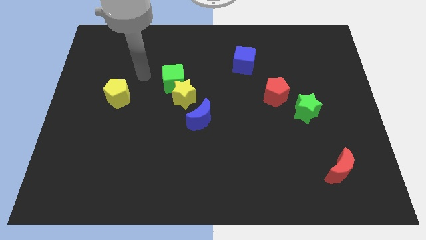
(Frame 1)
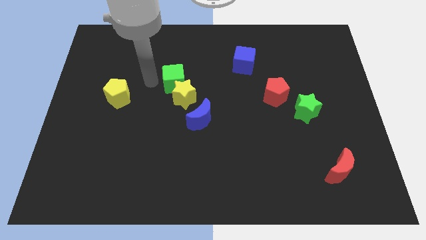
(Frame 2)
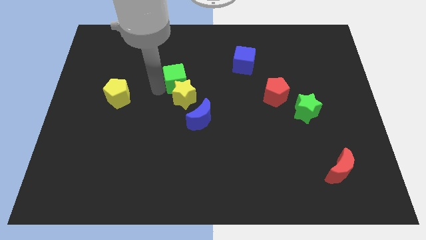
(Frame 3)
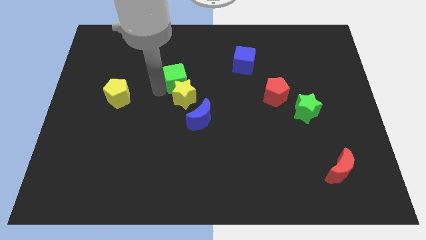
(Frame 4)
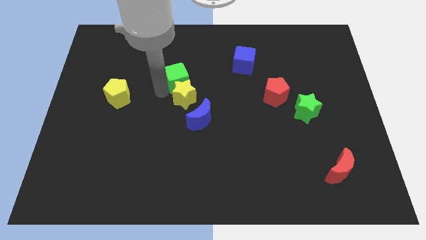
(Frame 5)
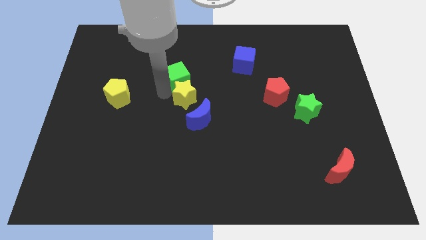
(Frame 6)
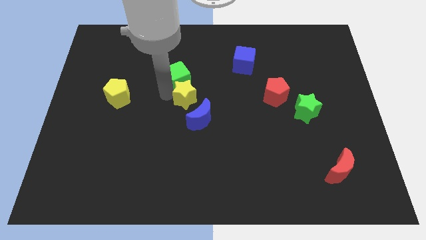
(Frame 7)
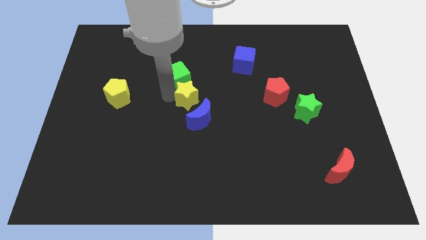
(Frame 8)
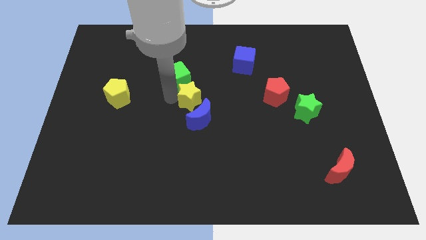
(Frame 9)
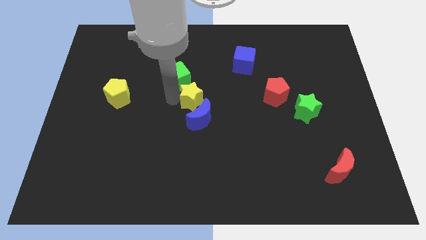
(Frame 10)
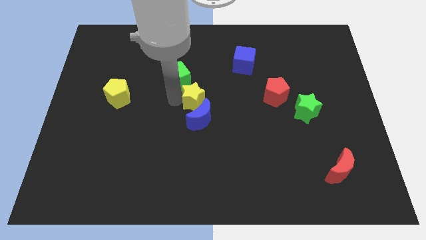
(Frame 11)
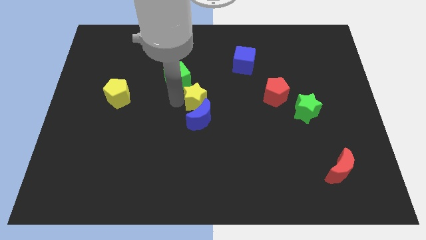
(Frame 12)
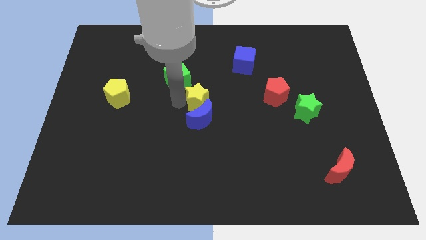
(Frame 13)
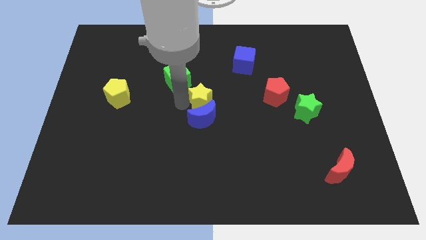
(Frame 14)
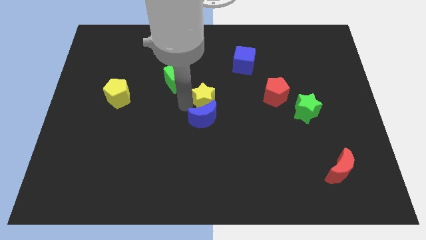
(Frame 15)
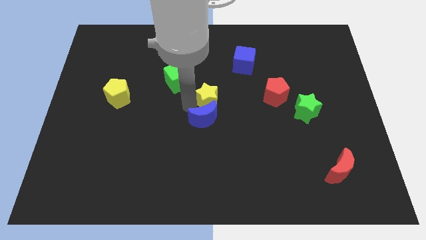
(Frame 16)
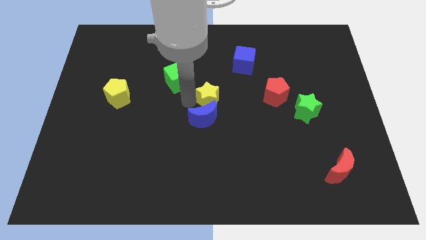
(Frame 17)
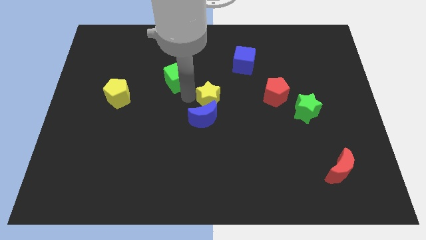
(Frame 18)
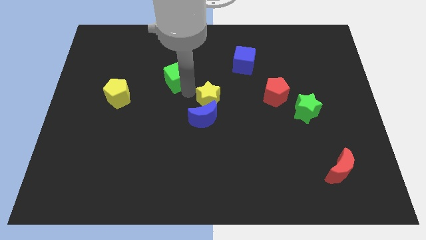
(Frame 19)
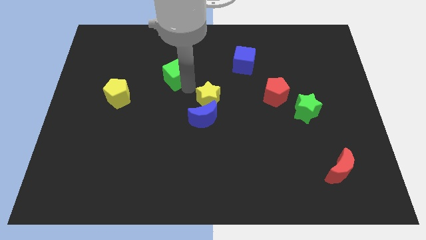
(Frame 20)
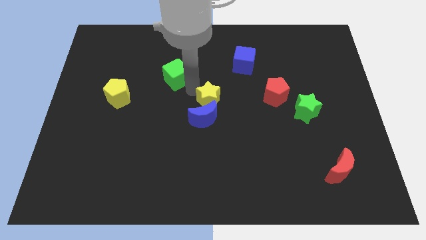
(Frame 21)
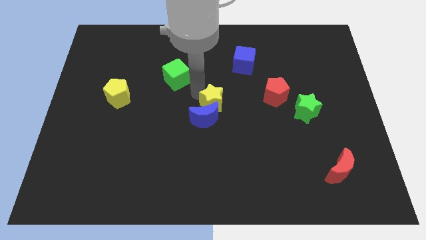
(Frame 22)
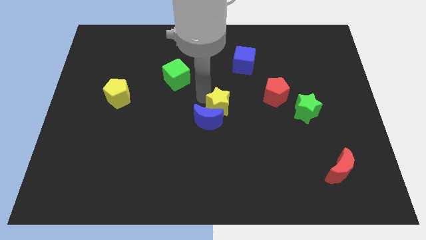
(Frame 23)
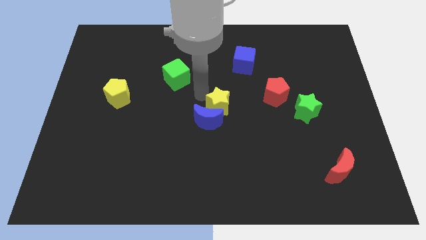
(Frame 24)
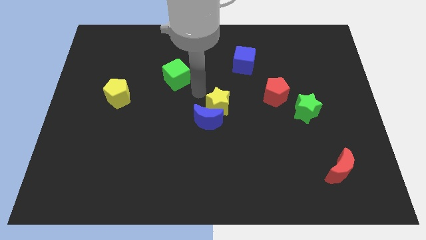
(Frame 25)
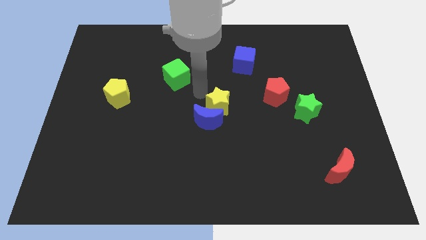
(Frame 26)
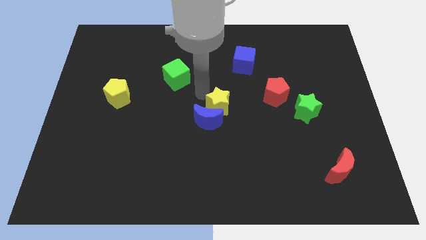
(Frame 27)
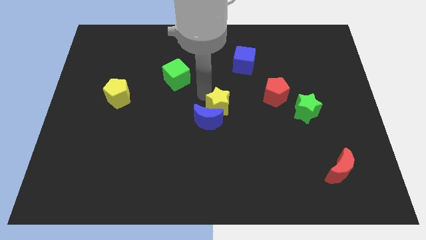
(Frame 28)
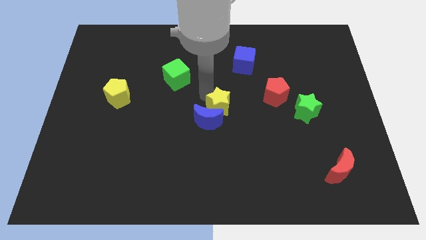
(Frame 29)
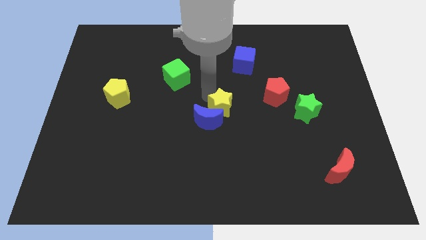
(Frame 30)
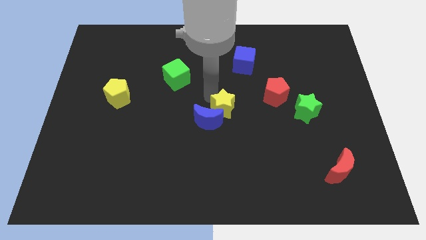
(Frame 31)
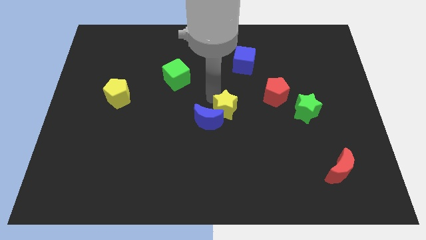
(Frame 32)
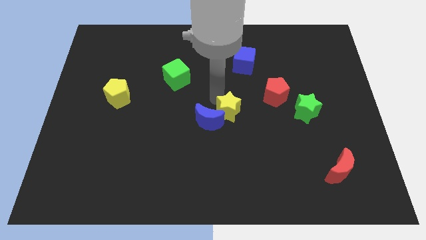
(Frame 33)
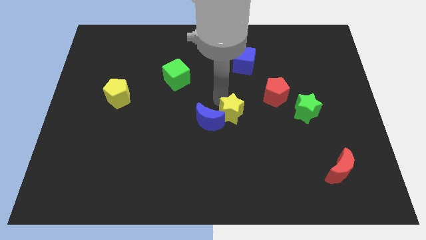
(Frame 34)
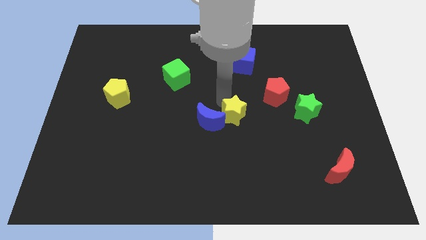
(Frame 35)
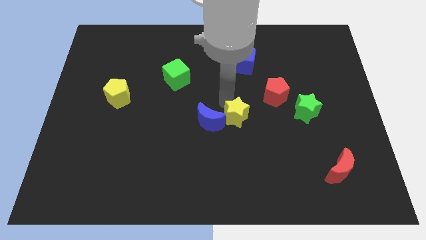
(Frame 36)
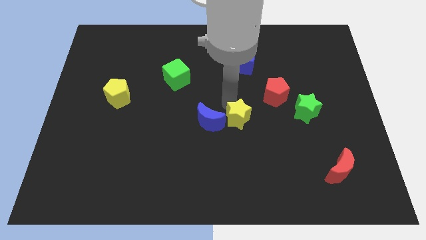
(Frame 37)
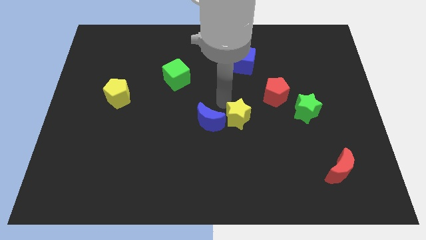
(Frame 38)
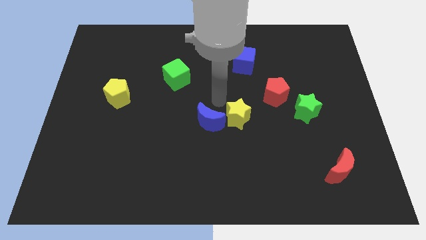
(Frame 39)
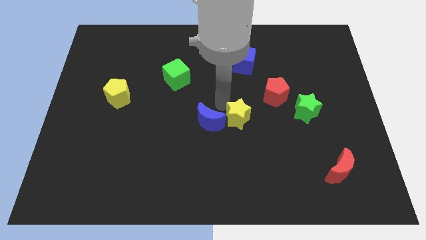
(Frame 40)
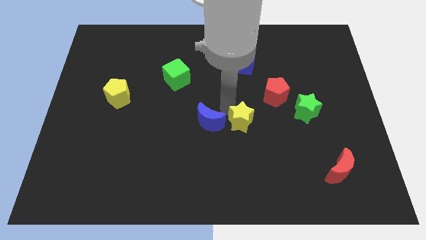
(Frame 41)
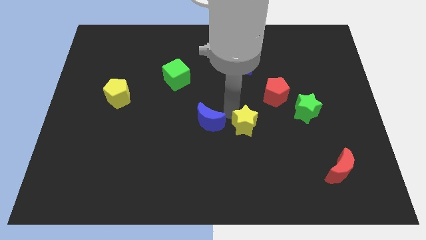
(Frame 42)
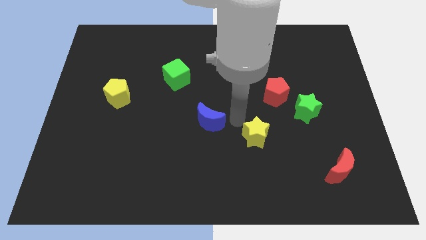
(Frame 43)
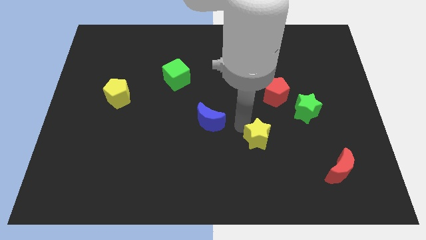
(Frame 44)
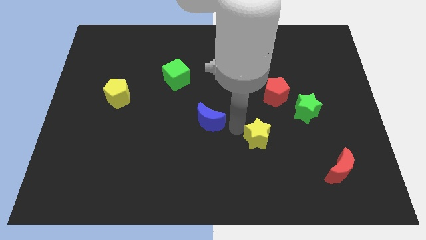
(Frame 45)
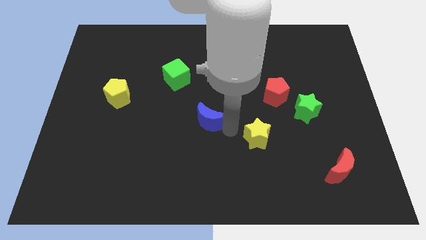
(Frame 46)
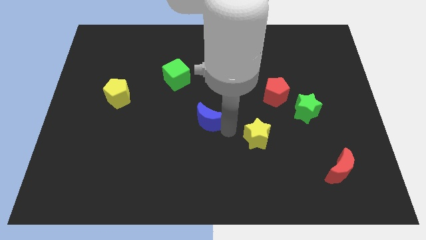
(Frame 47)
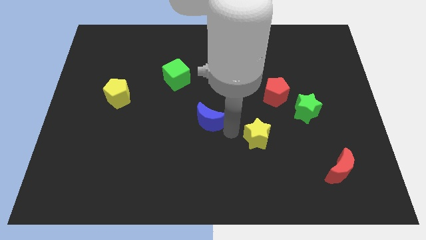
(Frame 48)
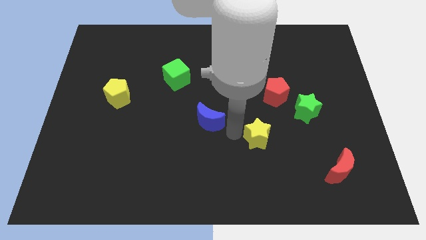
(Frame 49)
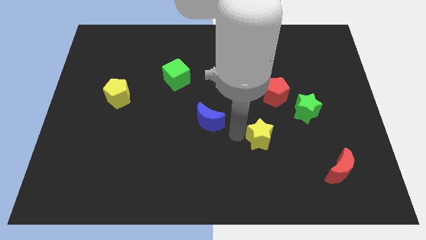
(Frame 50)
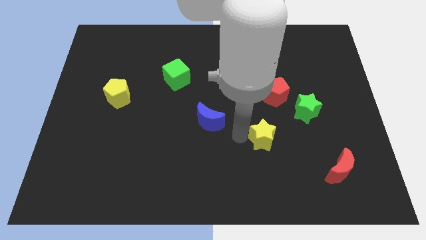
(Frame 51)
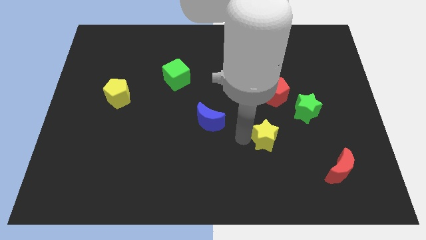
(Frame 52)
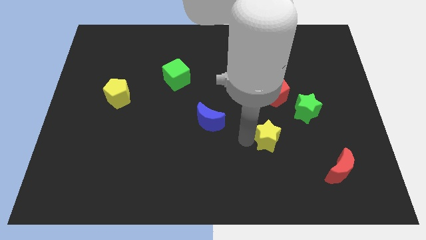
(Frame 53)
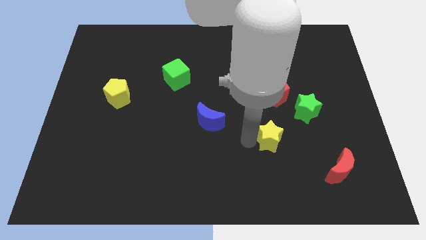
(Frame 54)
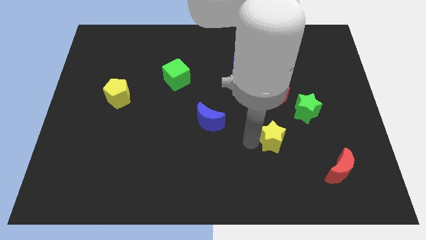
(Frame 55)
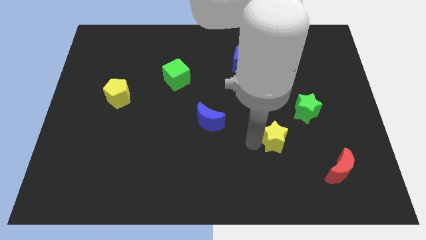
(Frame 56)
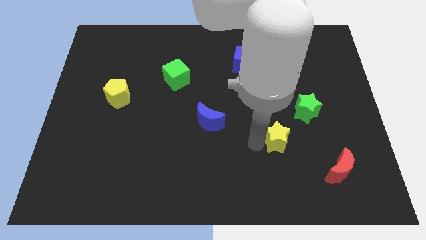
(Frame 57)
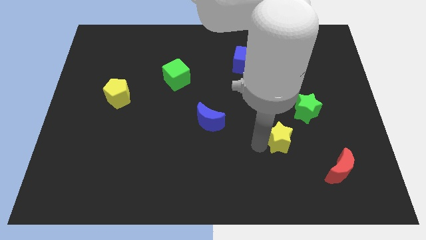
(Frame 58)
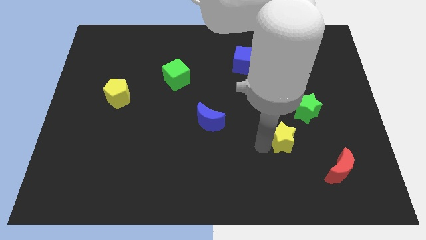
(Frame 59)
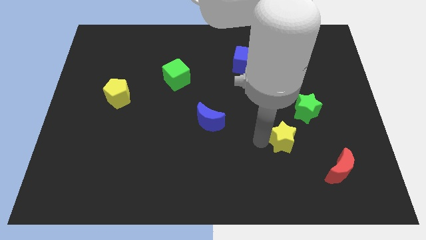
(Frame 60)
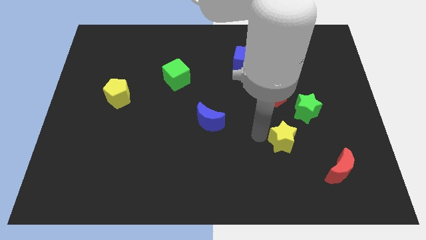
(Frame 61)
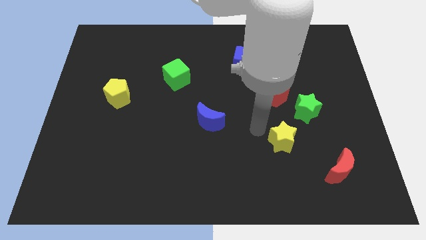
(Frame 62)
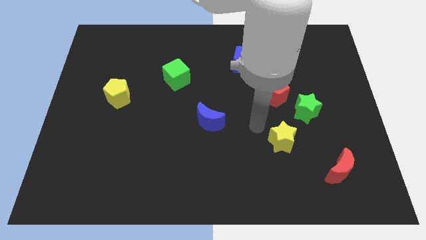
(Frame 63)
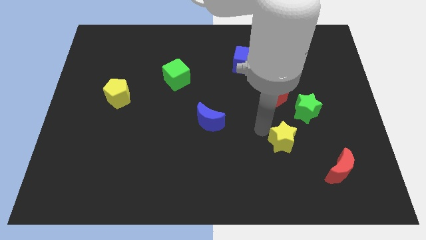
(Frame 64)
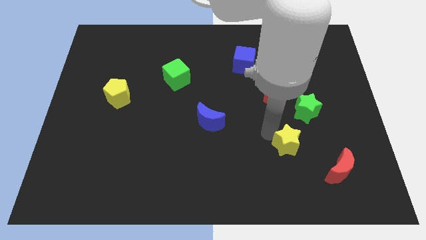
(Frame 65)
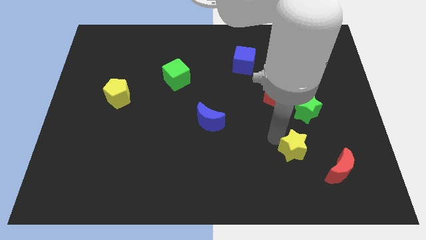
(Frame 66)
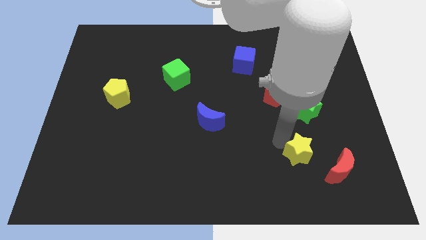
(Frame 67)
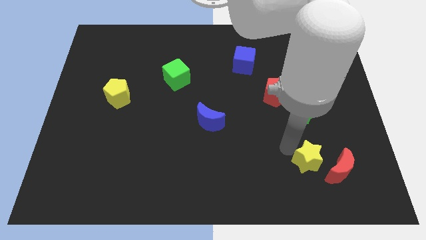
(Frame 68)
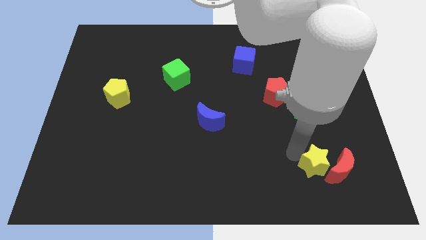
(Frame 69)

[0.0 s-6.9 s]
push the yellow star close to the red moon

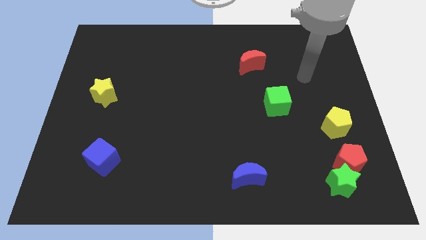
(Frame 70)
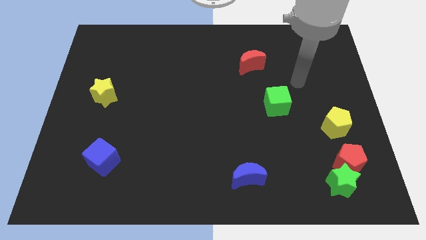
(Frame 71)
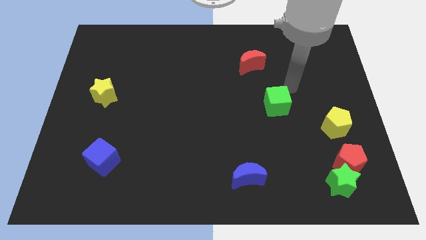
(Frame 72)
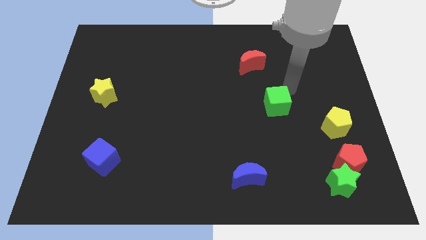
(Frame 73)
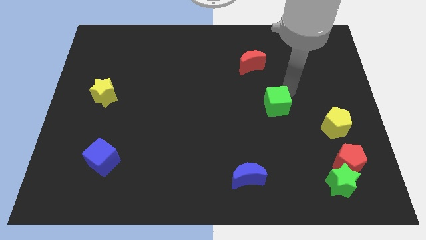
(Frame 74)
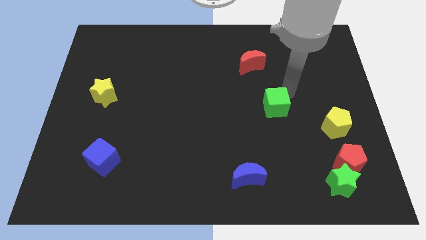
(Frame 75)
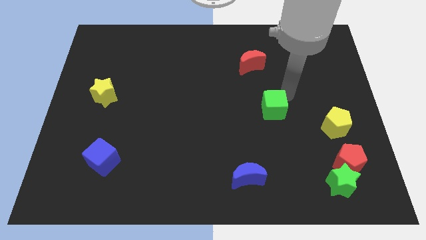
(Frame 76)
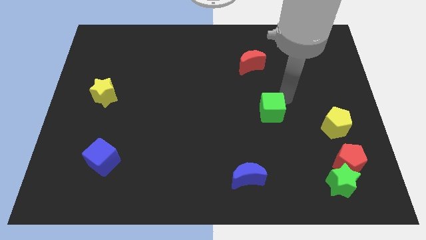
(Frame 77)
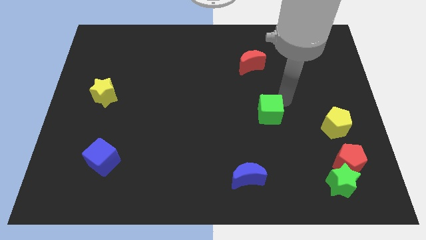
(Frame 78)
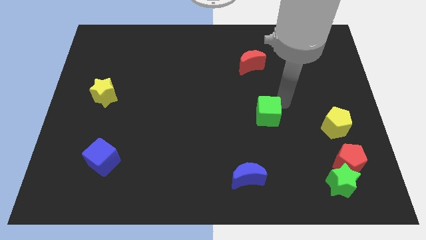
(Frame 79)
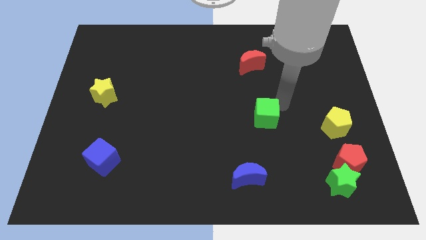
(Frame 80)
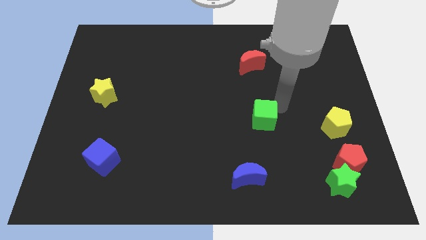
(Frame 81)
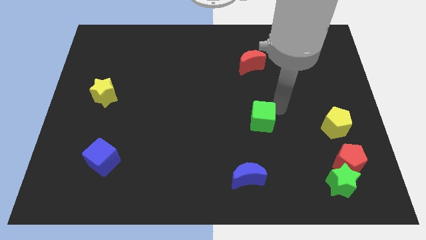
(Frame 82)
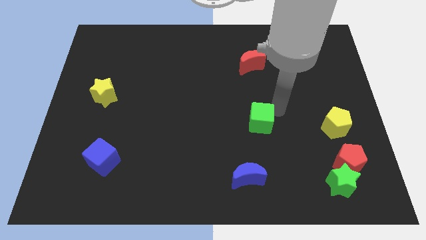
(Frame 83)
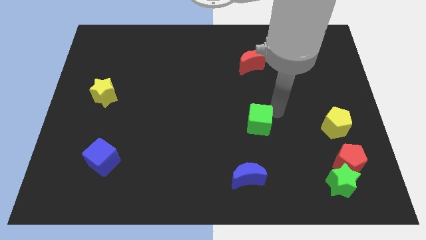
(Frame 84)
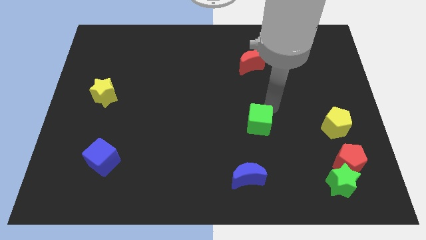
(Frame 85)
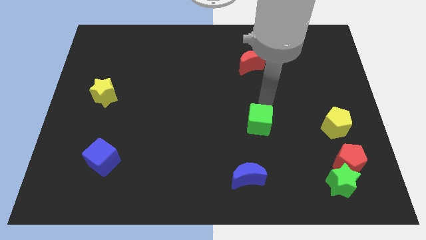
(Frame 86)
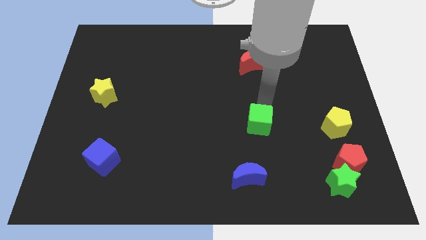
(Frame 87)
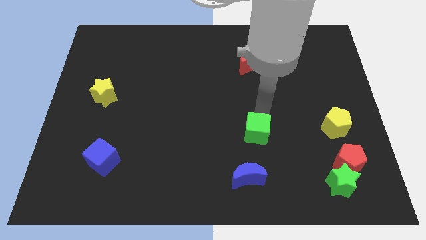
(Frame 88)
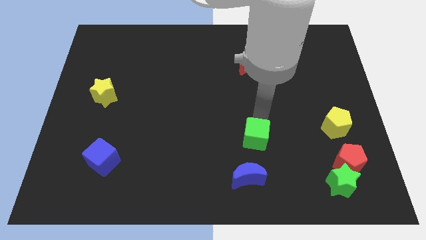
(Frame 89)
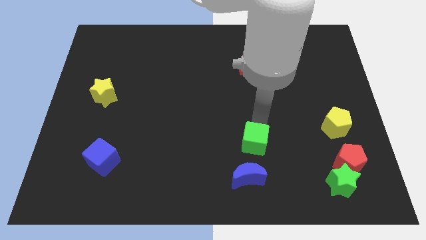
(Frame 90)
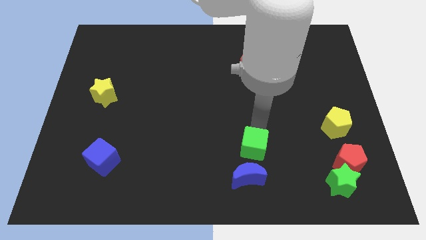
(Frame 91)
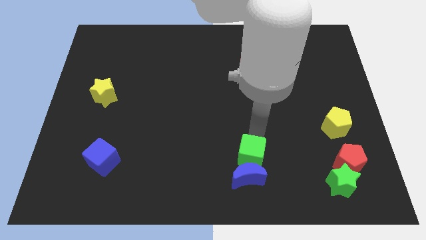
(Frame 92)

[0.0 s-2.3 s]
put the green cube close to the blue moon
